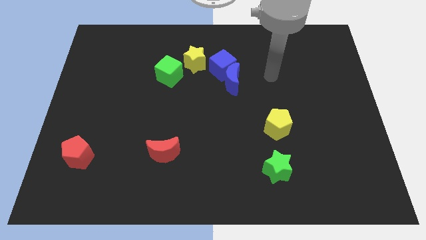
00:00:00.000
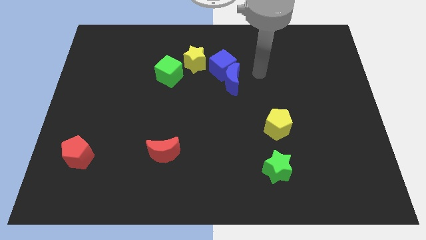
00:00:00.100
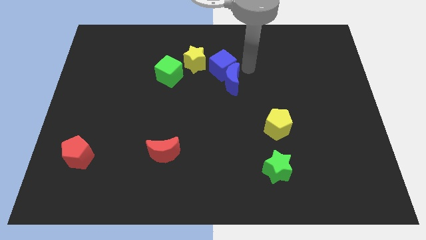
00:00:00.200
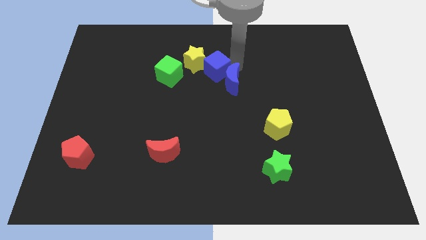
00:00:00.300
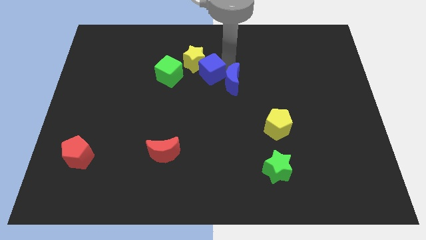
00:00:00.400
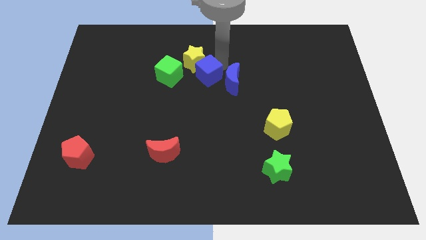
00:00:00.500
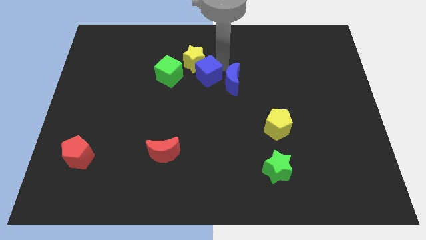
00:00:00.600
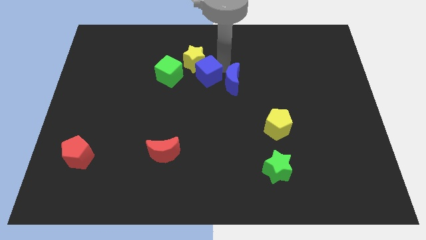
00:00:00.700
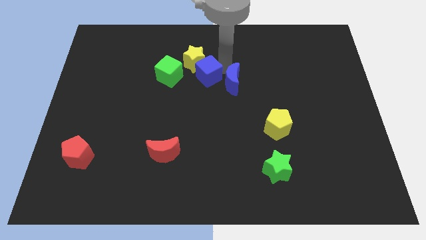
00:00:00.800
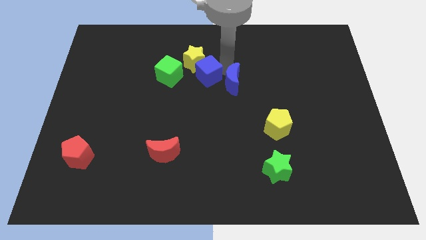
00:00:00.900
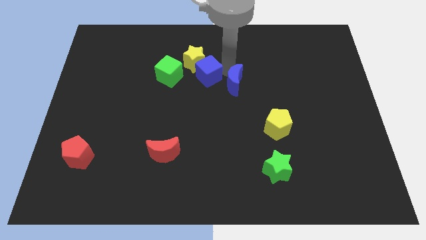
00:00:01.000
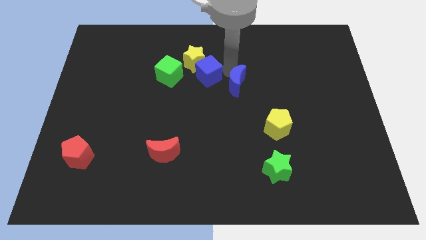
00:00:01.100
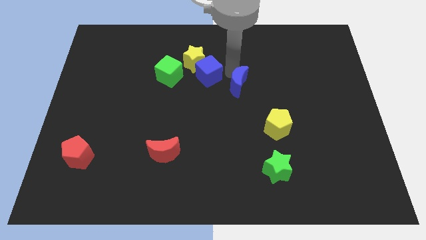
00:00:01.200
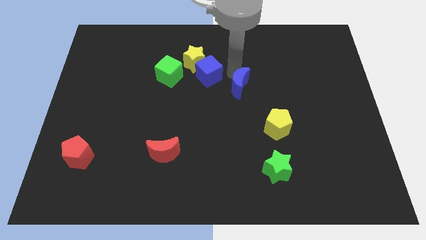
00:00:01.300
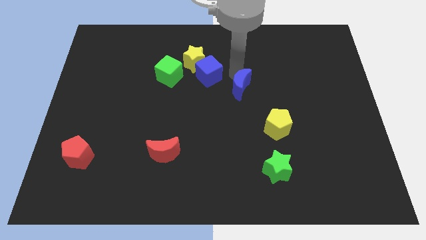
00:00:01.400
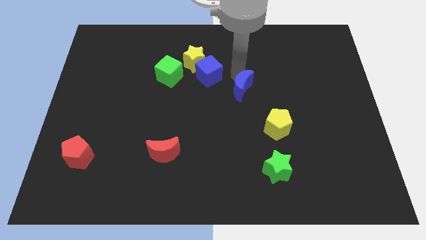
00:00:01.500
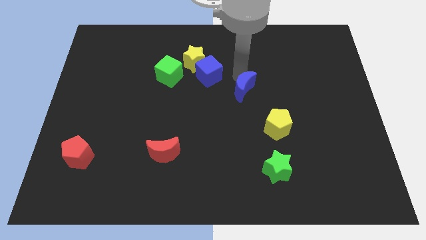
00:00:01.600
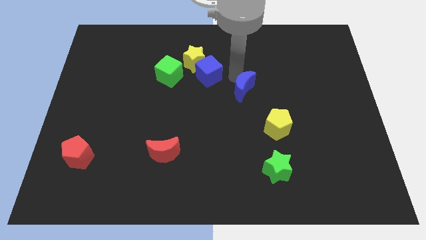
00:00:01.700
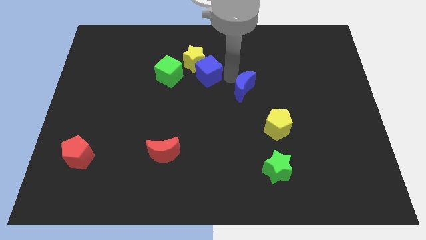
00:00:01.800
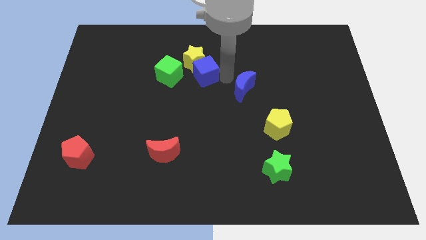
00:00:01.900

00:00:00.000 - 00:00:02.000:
pull the blue moon apart from the blue cube

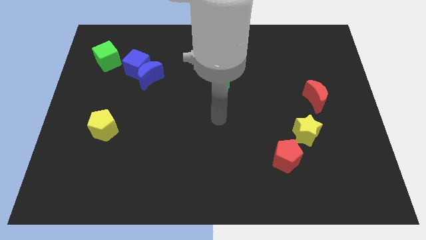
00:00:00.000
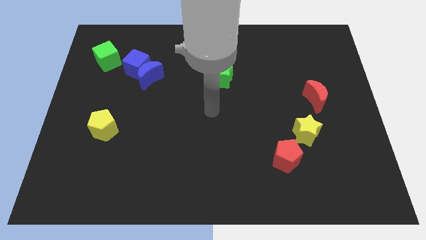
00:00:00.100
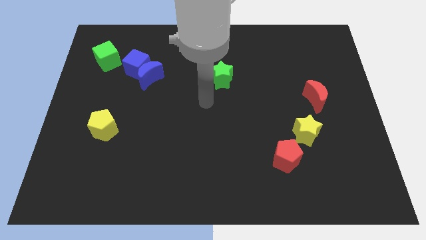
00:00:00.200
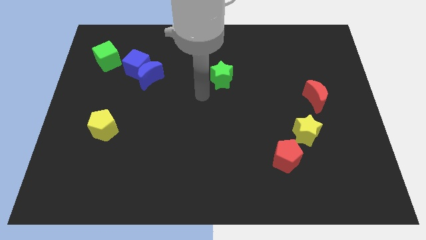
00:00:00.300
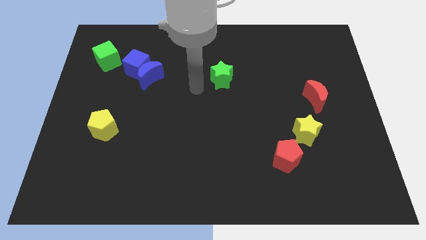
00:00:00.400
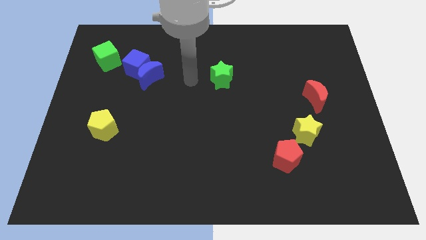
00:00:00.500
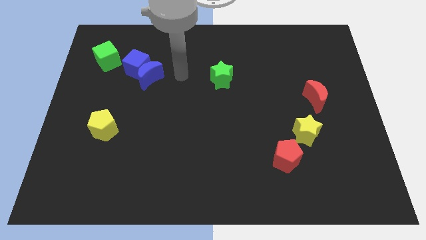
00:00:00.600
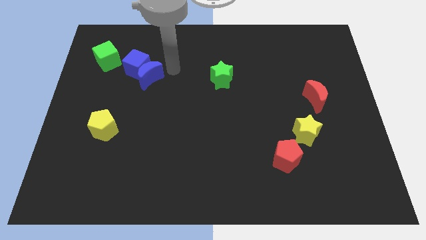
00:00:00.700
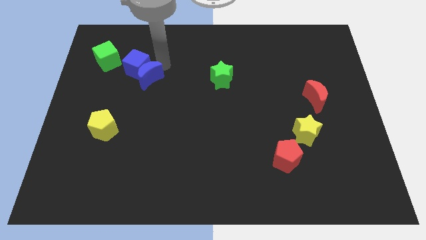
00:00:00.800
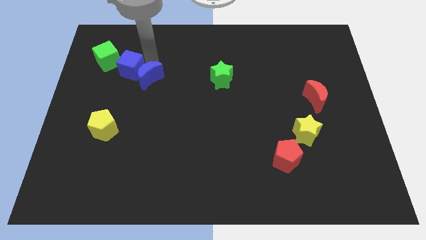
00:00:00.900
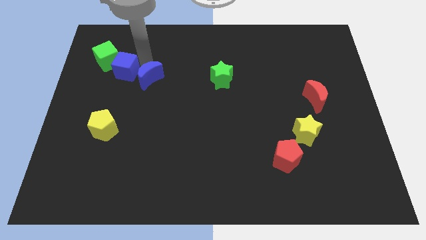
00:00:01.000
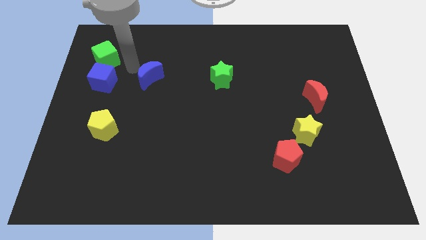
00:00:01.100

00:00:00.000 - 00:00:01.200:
move the blue moon away from the blue cube

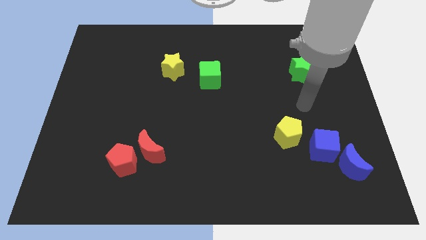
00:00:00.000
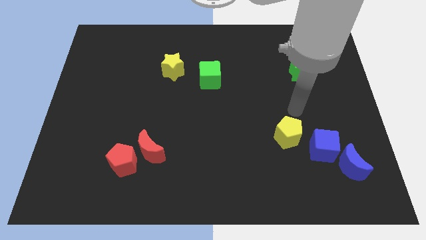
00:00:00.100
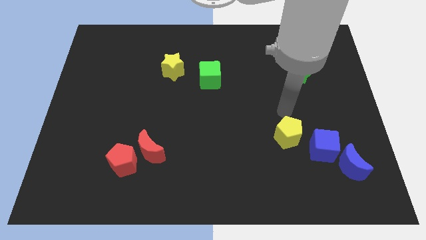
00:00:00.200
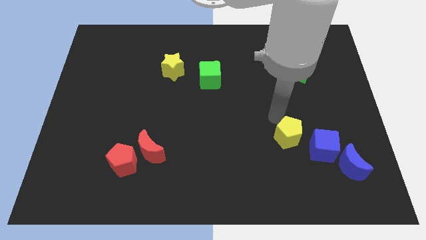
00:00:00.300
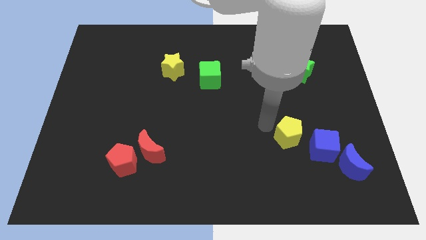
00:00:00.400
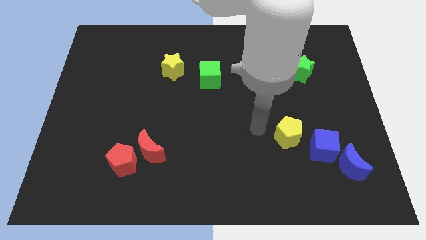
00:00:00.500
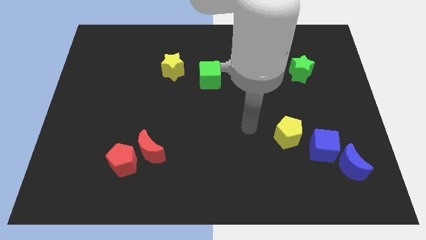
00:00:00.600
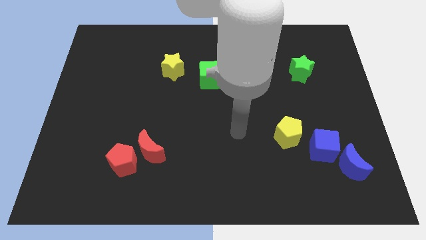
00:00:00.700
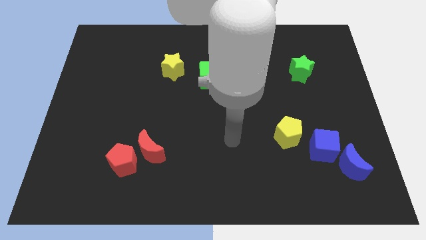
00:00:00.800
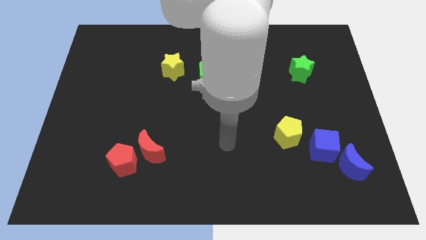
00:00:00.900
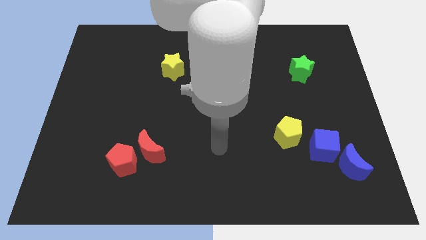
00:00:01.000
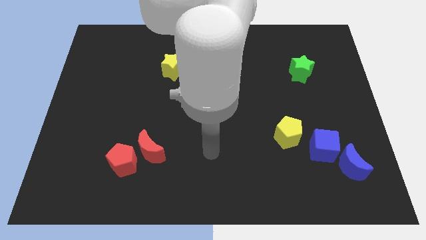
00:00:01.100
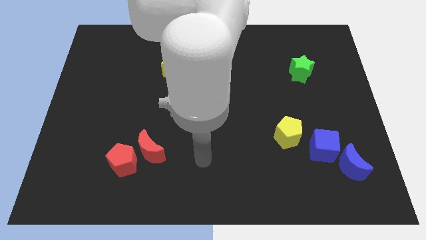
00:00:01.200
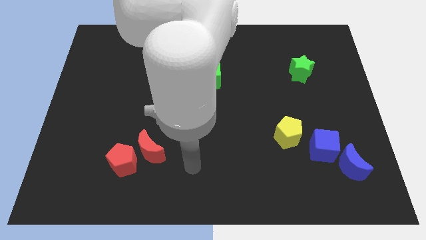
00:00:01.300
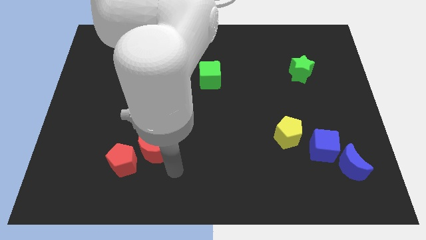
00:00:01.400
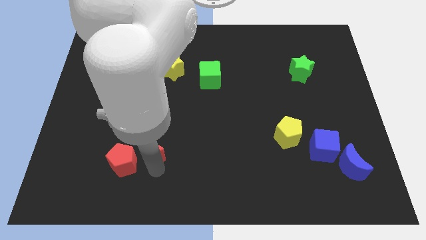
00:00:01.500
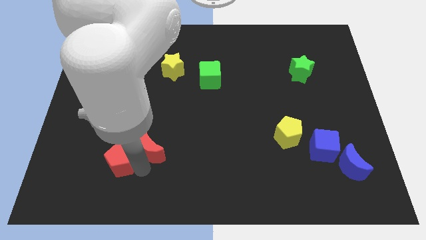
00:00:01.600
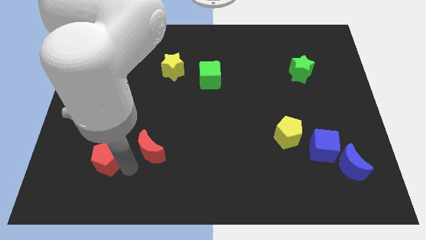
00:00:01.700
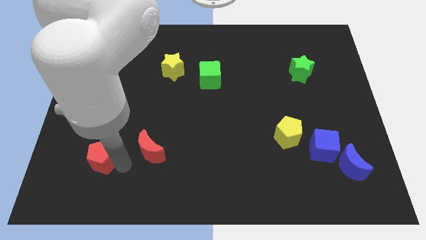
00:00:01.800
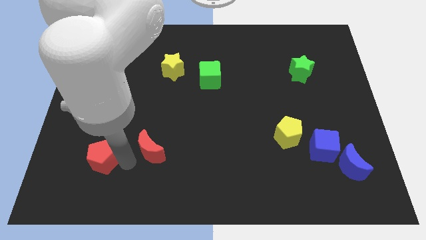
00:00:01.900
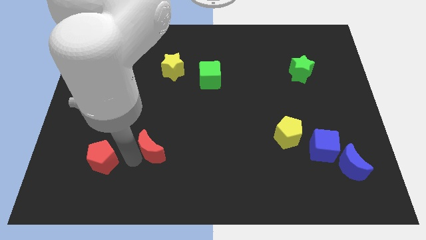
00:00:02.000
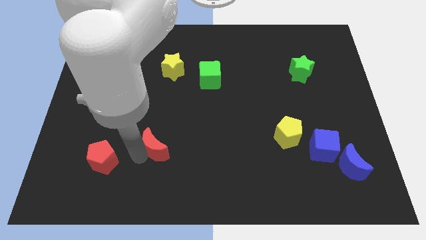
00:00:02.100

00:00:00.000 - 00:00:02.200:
separate the red moon from the red pentagon

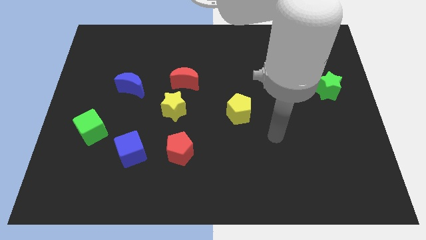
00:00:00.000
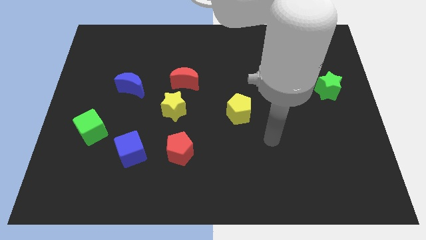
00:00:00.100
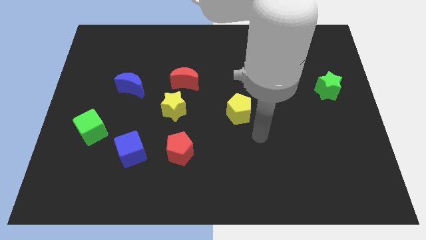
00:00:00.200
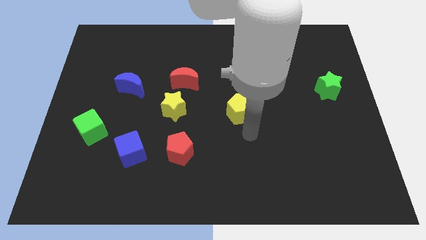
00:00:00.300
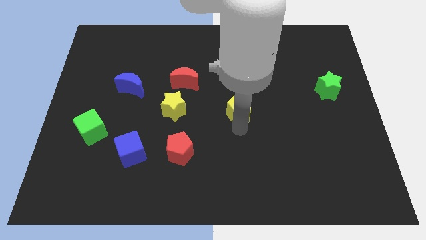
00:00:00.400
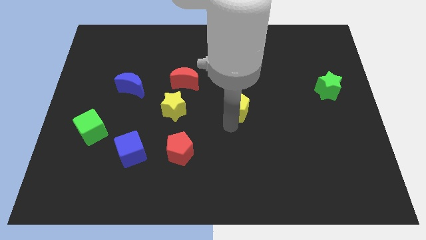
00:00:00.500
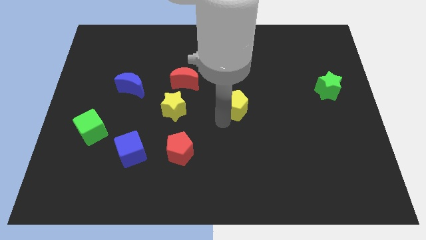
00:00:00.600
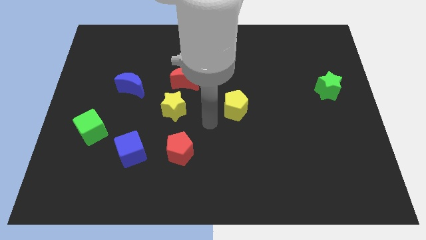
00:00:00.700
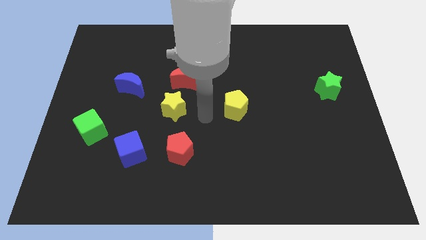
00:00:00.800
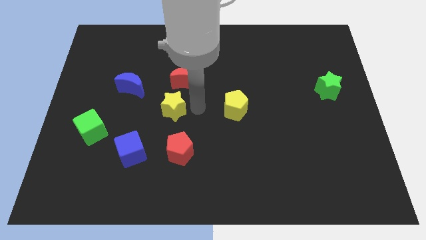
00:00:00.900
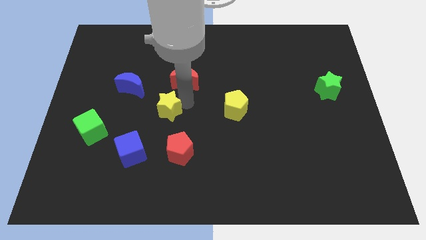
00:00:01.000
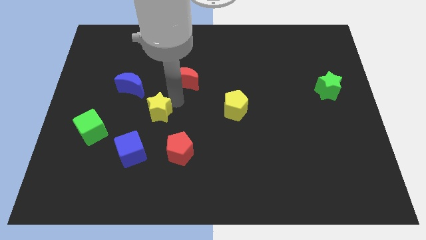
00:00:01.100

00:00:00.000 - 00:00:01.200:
separate the red moon from the yellow star

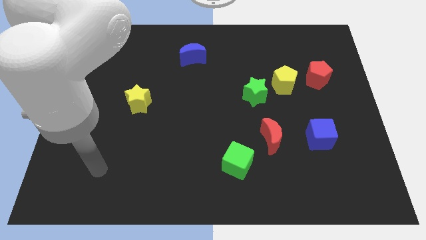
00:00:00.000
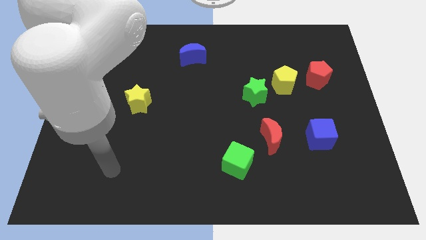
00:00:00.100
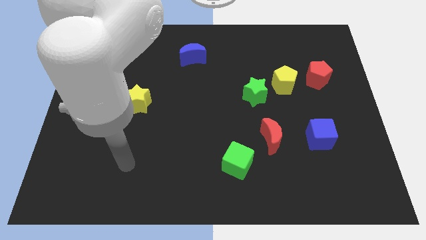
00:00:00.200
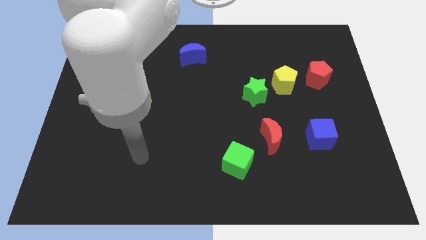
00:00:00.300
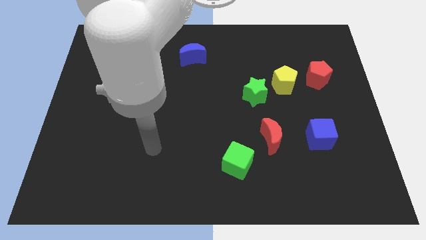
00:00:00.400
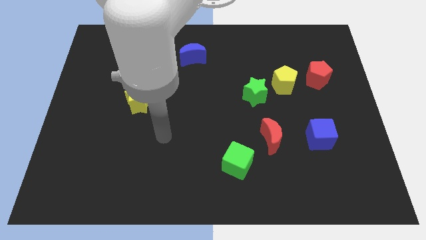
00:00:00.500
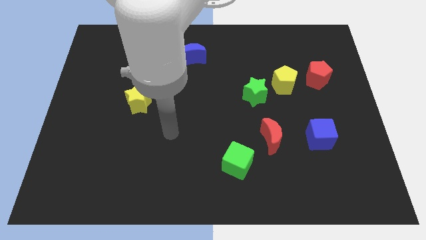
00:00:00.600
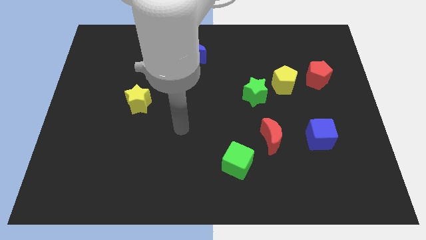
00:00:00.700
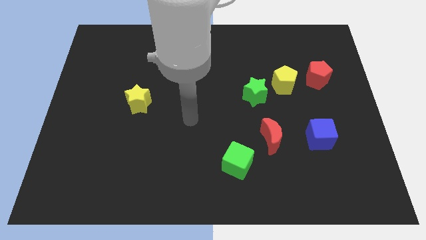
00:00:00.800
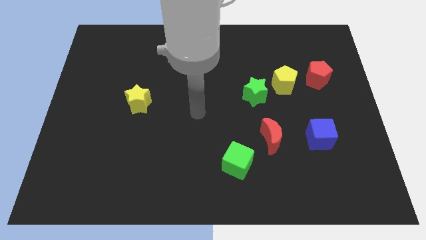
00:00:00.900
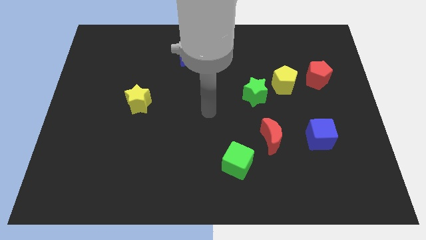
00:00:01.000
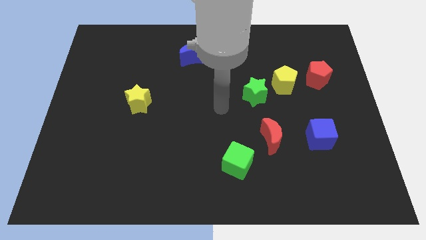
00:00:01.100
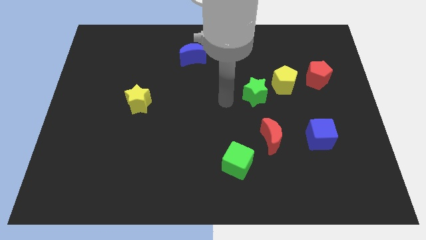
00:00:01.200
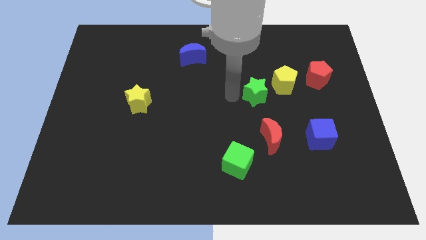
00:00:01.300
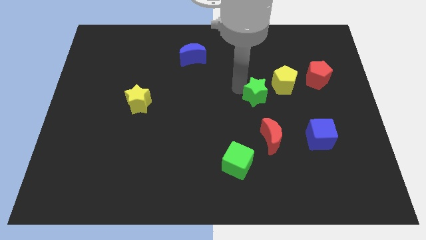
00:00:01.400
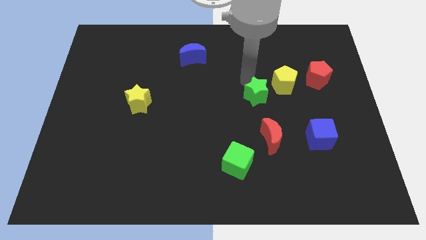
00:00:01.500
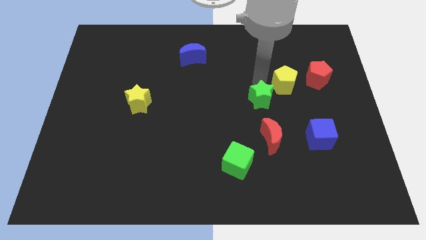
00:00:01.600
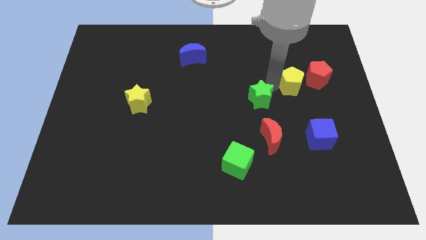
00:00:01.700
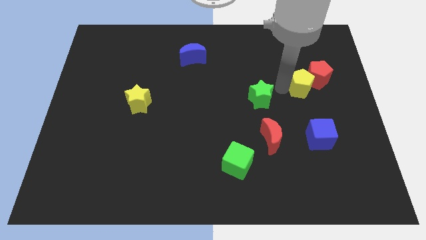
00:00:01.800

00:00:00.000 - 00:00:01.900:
separate the green star from the yellow pentagon

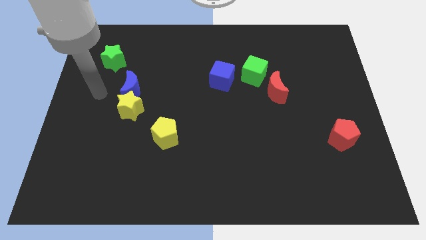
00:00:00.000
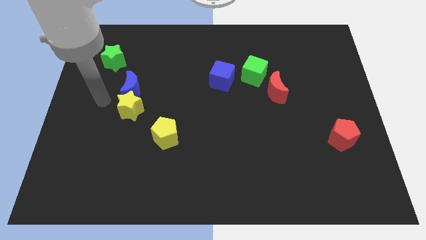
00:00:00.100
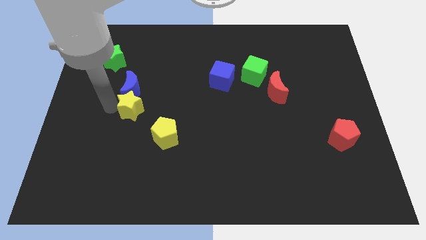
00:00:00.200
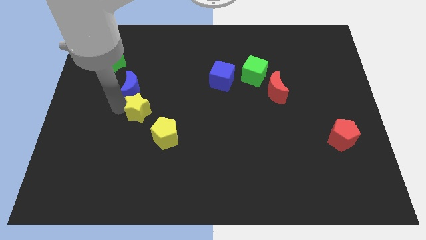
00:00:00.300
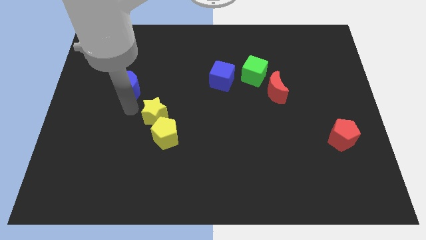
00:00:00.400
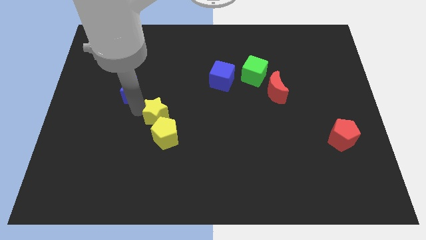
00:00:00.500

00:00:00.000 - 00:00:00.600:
separate the blue moon from the yellow star

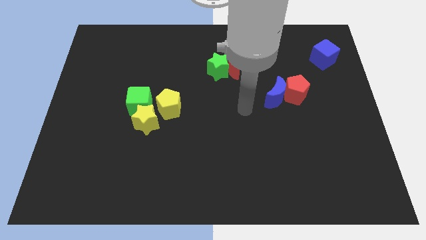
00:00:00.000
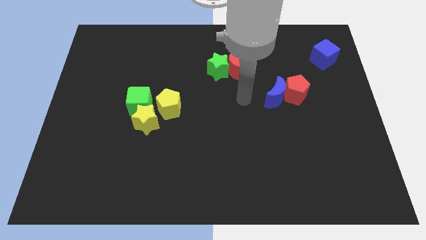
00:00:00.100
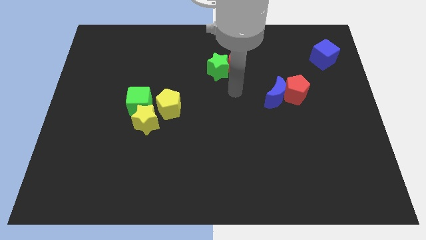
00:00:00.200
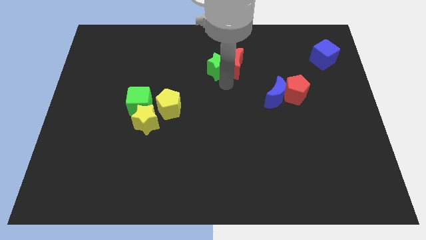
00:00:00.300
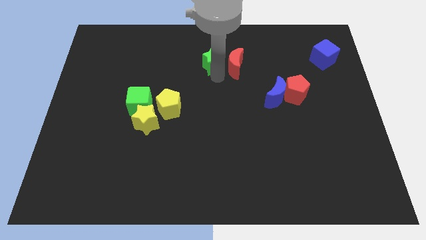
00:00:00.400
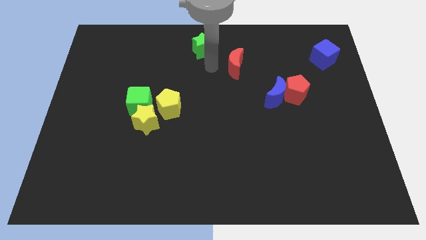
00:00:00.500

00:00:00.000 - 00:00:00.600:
separate the red moon from the green star
